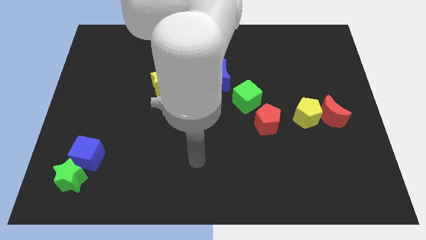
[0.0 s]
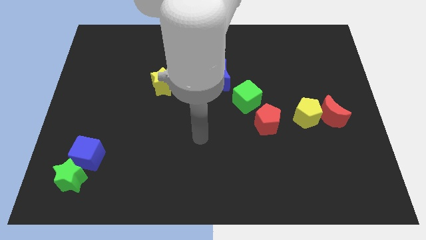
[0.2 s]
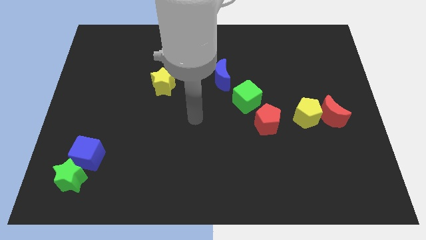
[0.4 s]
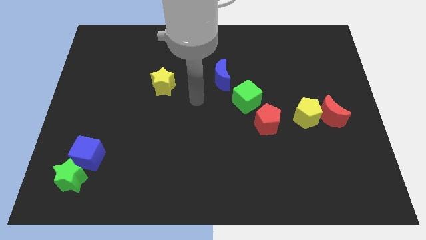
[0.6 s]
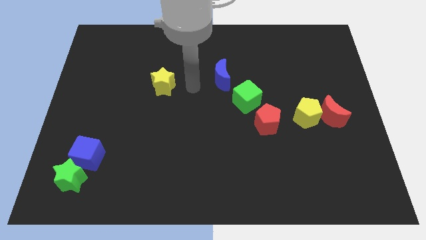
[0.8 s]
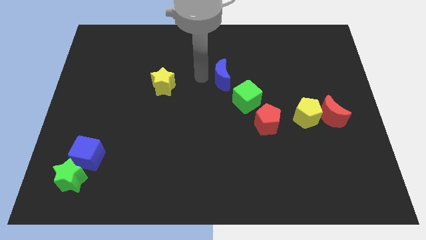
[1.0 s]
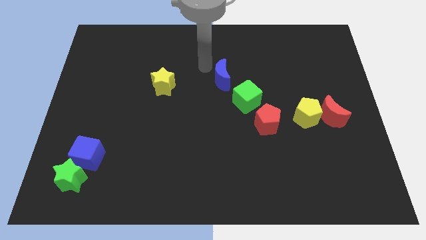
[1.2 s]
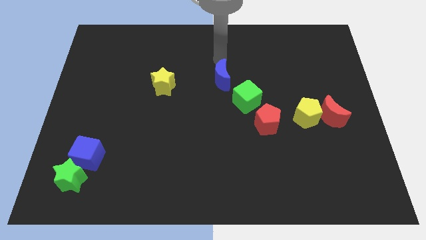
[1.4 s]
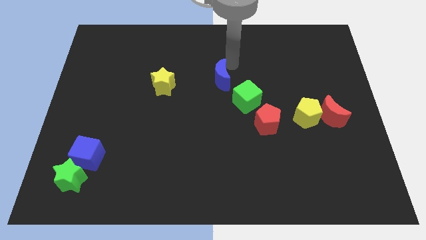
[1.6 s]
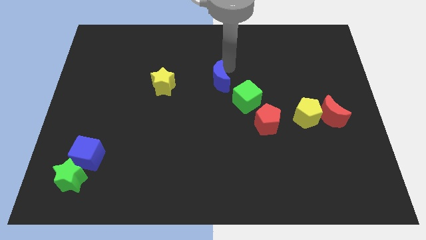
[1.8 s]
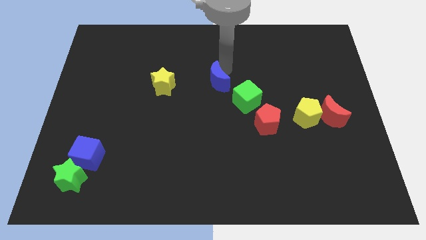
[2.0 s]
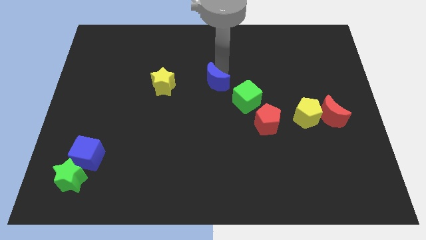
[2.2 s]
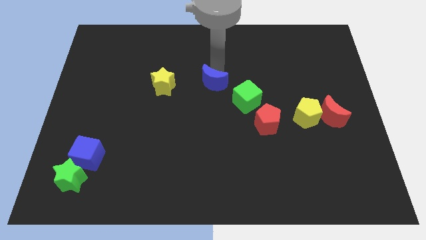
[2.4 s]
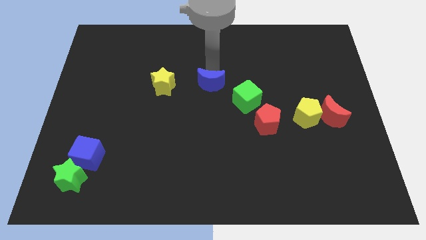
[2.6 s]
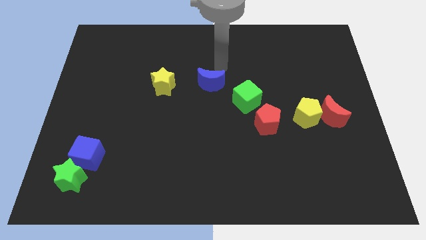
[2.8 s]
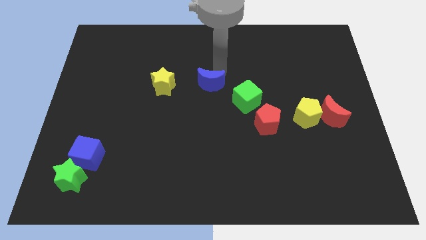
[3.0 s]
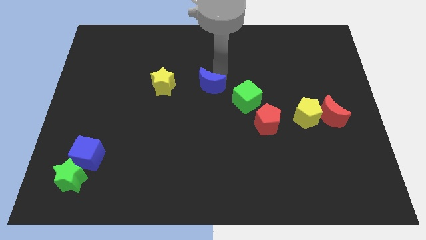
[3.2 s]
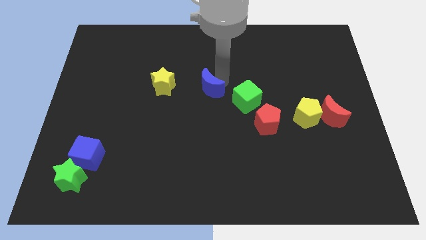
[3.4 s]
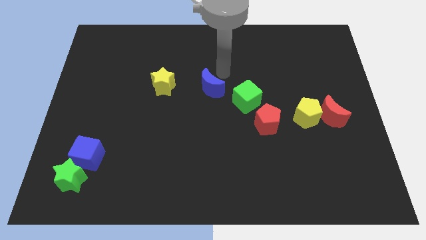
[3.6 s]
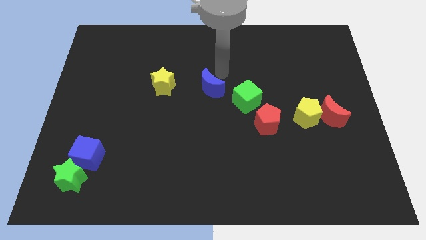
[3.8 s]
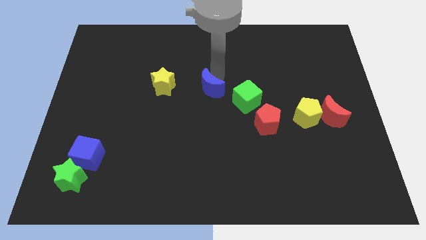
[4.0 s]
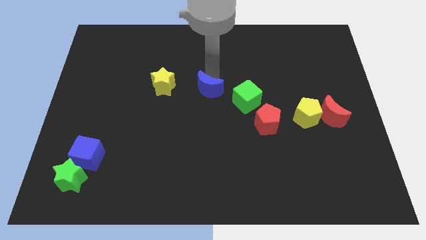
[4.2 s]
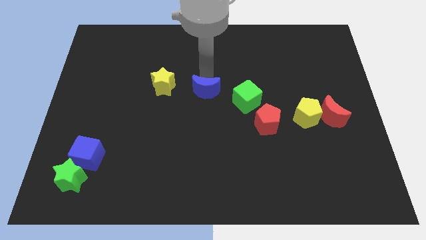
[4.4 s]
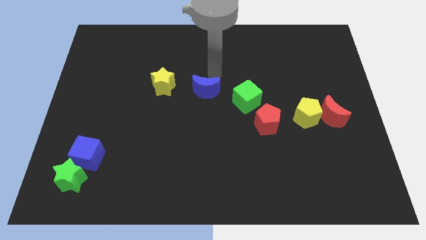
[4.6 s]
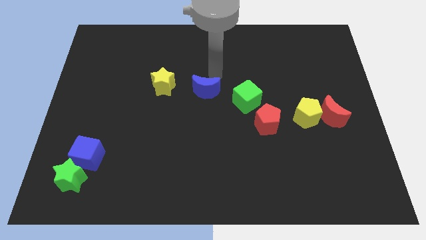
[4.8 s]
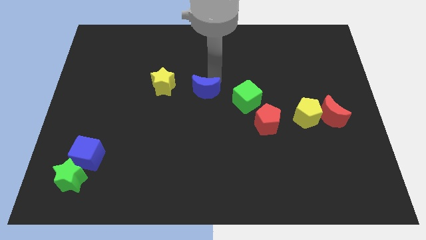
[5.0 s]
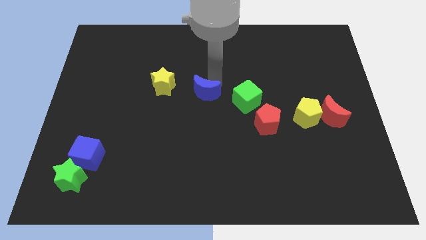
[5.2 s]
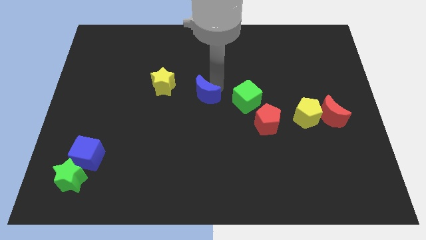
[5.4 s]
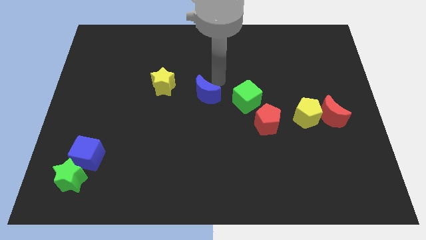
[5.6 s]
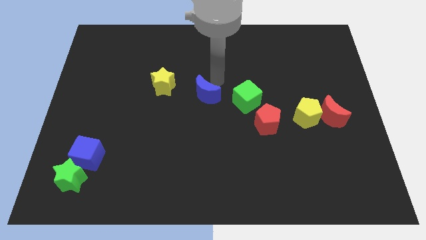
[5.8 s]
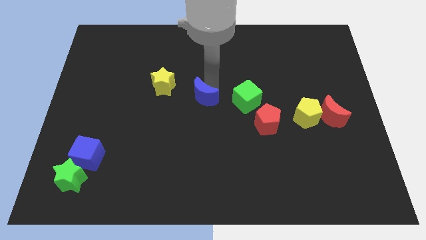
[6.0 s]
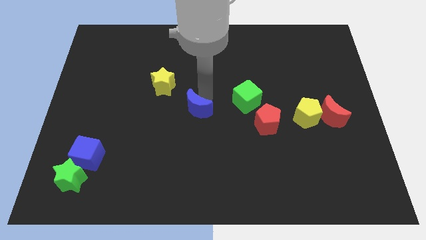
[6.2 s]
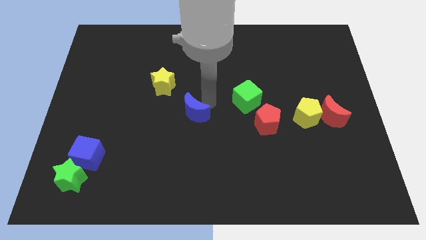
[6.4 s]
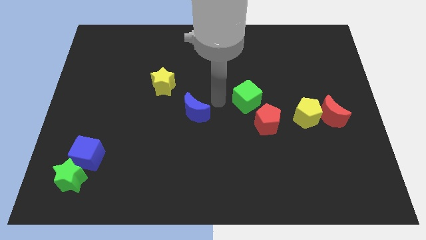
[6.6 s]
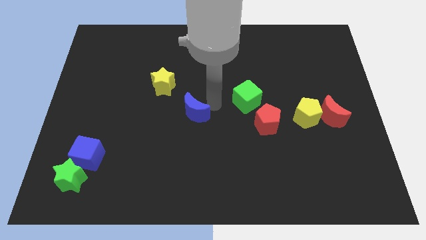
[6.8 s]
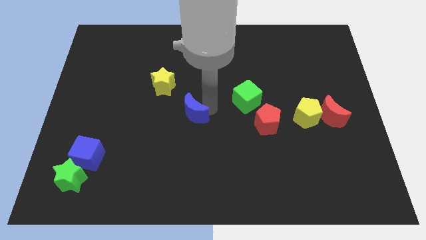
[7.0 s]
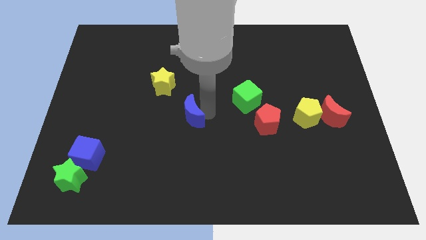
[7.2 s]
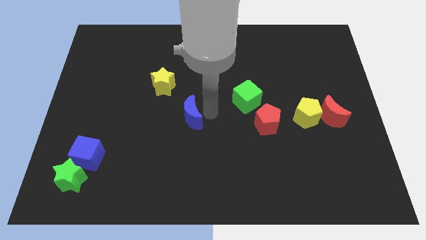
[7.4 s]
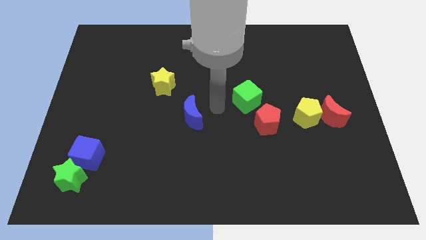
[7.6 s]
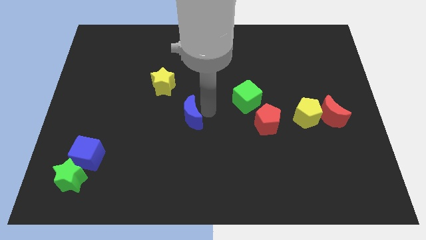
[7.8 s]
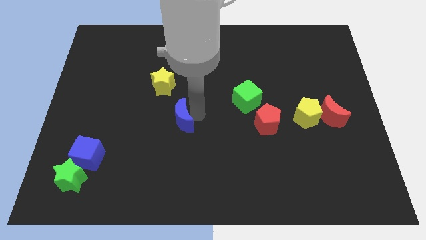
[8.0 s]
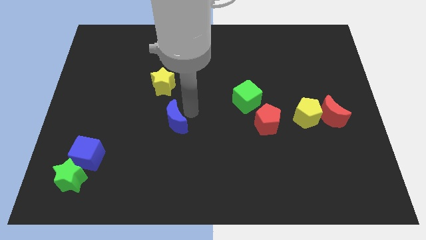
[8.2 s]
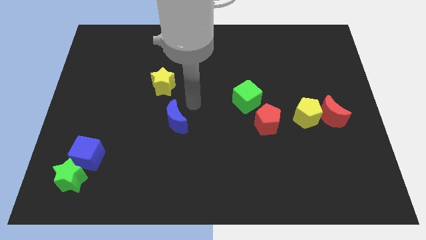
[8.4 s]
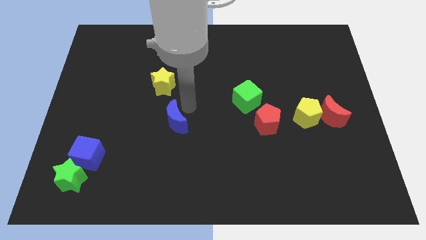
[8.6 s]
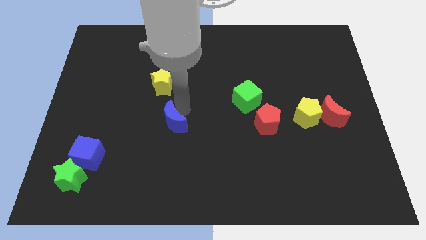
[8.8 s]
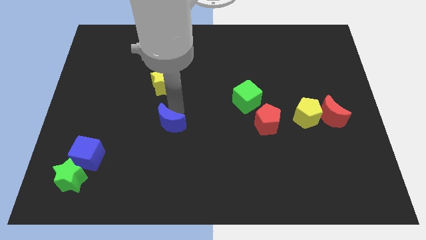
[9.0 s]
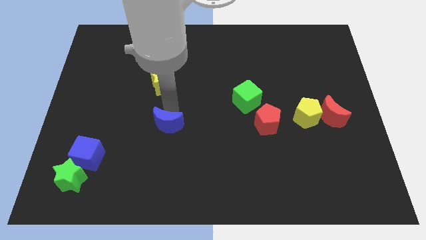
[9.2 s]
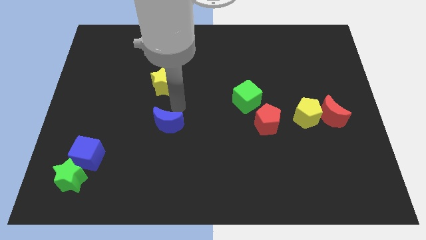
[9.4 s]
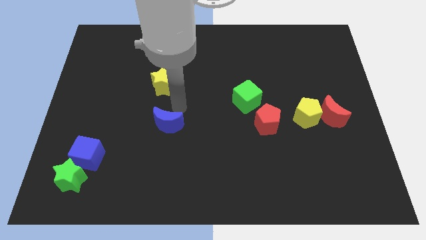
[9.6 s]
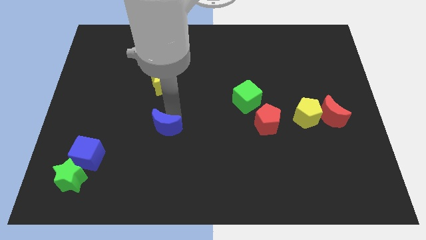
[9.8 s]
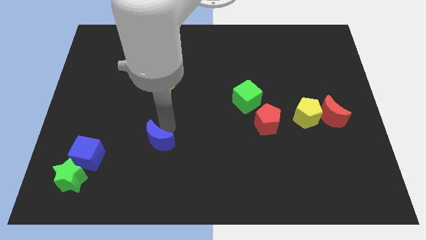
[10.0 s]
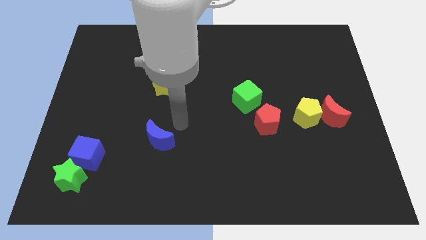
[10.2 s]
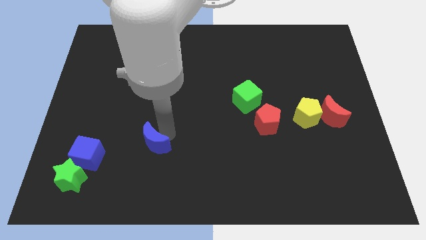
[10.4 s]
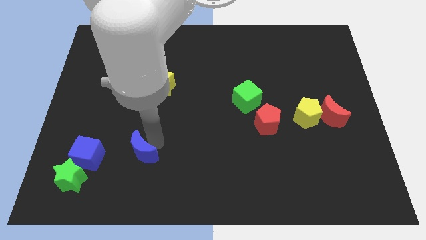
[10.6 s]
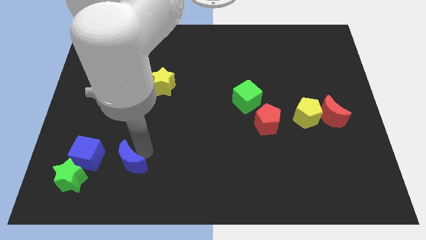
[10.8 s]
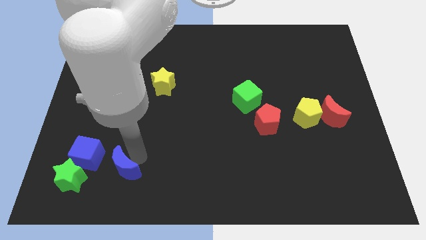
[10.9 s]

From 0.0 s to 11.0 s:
put the blue moon diagonally down and to the right of the blue cube

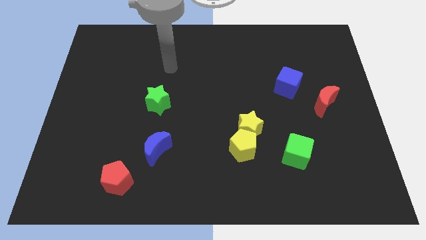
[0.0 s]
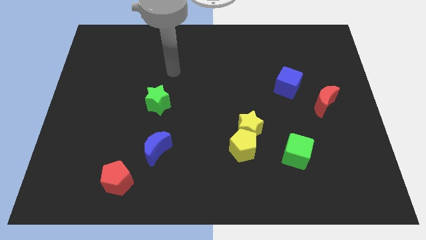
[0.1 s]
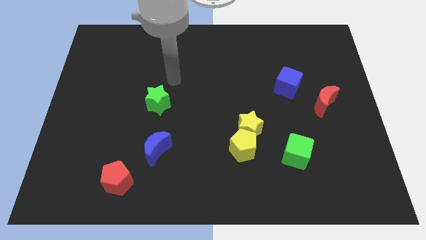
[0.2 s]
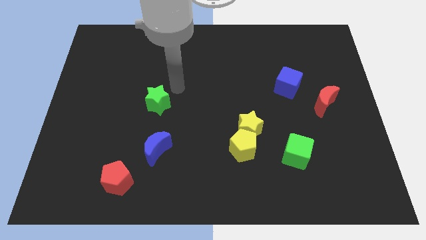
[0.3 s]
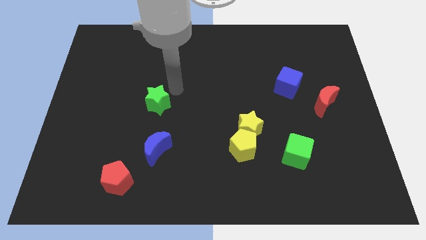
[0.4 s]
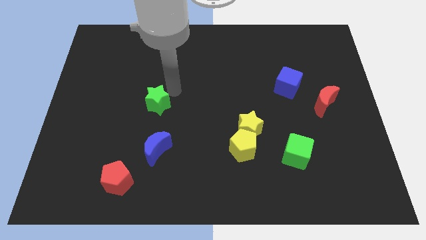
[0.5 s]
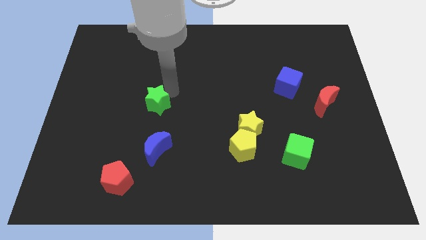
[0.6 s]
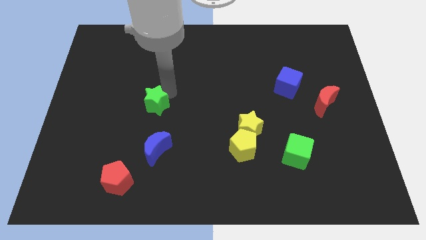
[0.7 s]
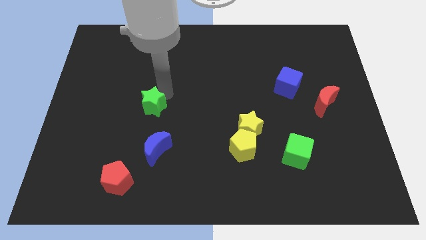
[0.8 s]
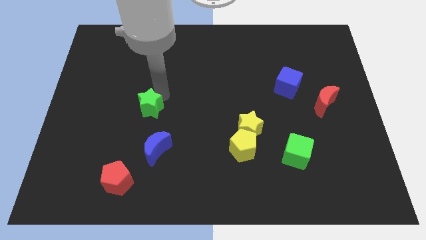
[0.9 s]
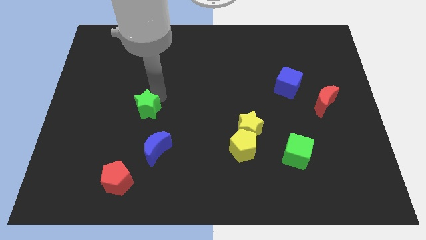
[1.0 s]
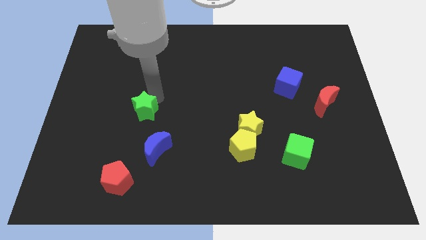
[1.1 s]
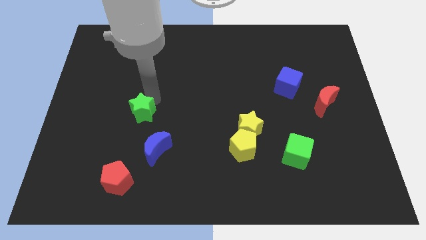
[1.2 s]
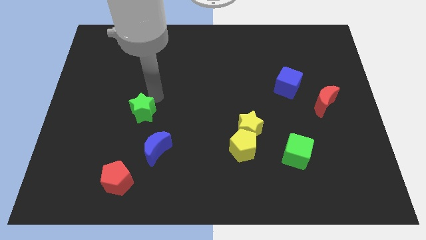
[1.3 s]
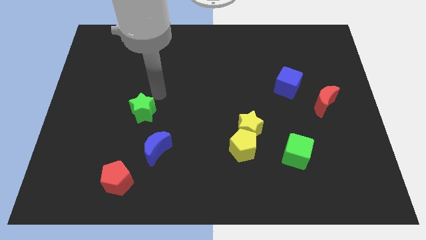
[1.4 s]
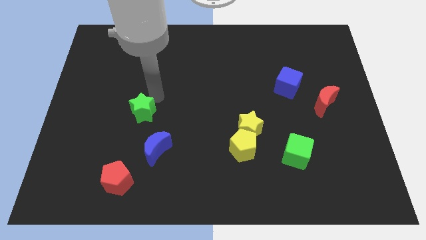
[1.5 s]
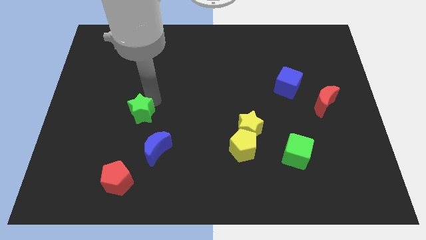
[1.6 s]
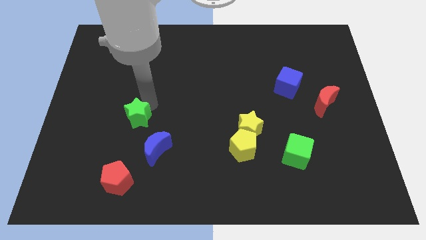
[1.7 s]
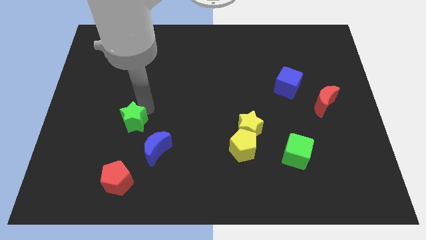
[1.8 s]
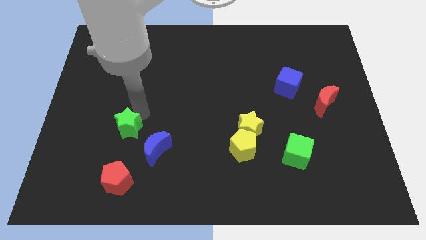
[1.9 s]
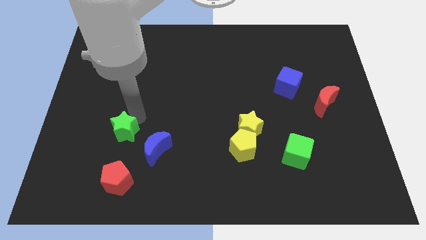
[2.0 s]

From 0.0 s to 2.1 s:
move the green star to the left of the blue moon
